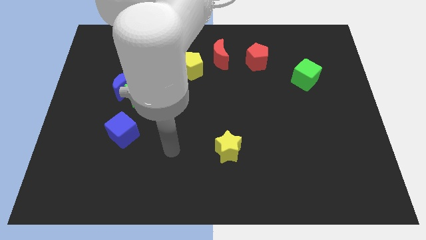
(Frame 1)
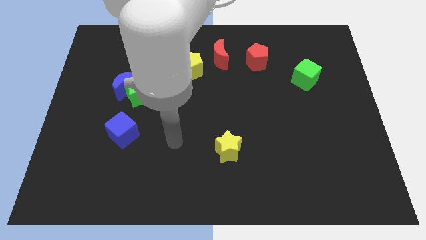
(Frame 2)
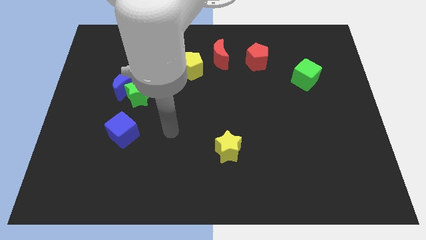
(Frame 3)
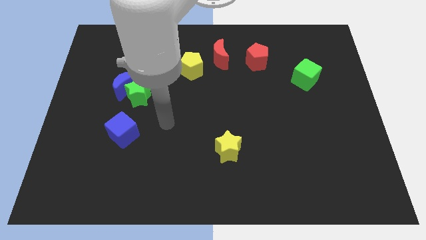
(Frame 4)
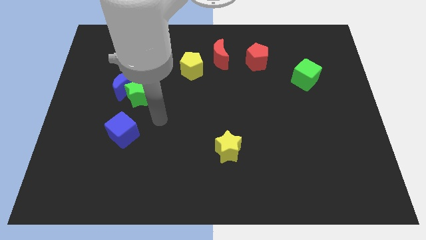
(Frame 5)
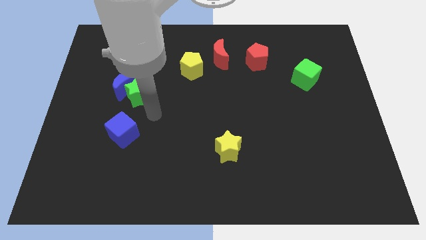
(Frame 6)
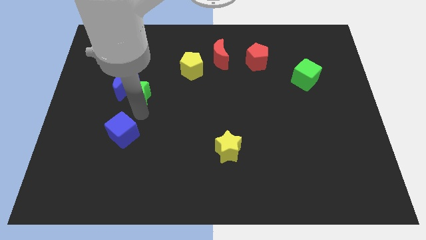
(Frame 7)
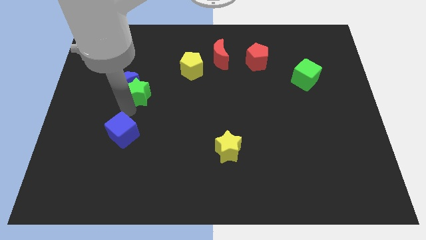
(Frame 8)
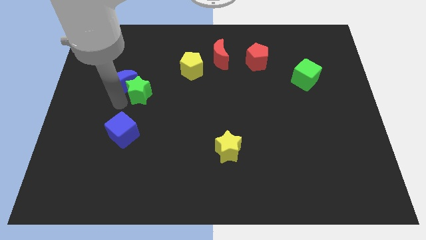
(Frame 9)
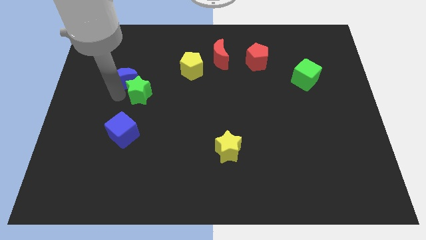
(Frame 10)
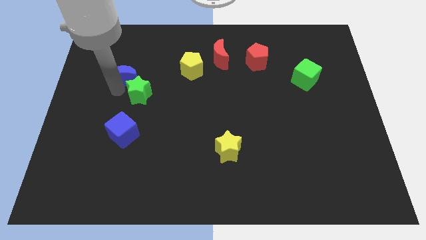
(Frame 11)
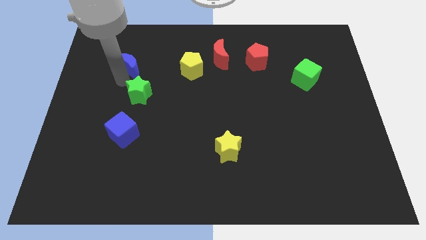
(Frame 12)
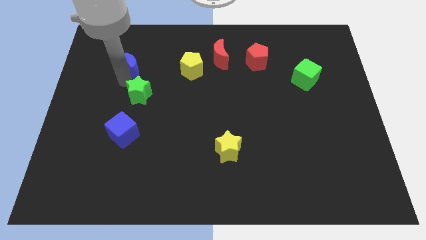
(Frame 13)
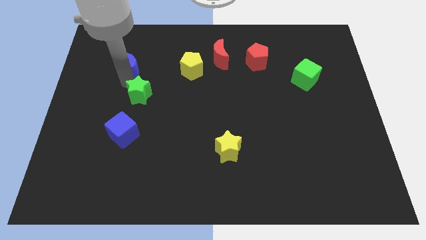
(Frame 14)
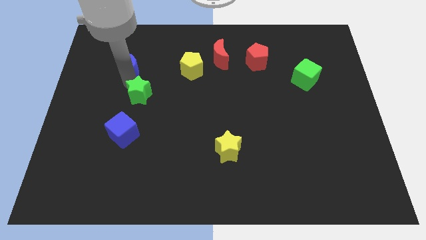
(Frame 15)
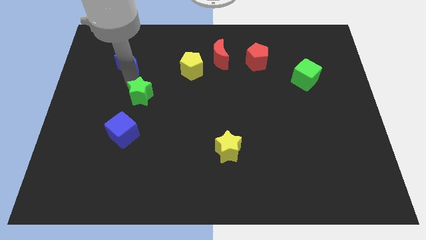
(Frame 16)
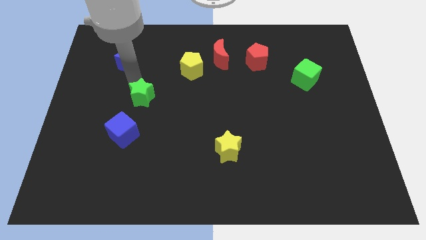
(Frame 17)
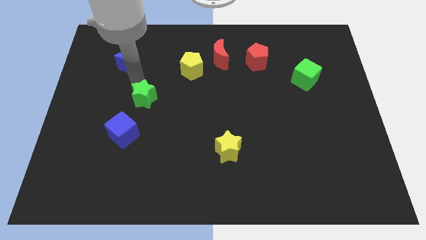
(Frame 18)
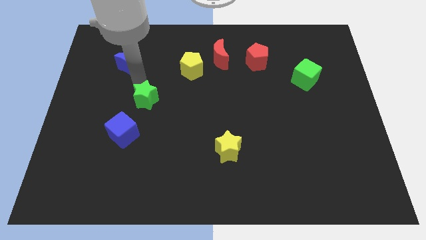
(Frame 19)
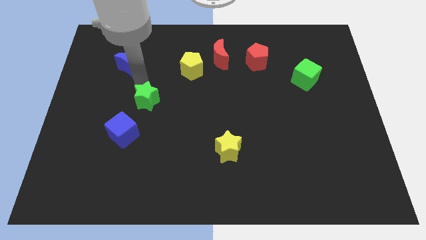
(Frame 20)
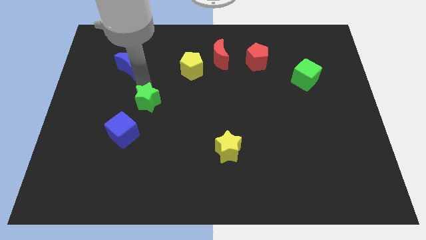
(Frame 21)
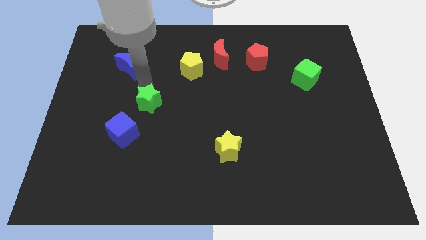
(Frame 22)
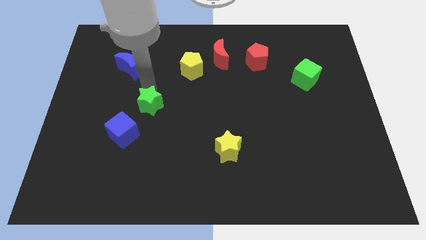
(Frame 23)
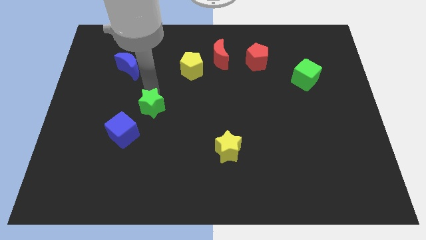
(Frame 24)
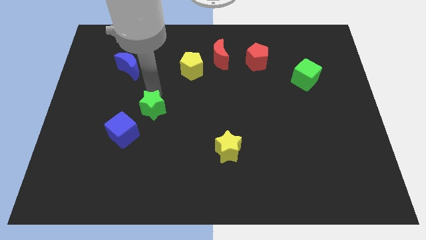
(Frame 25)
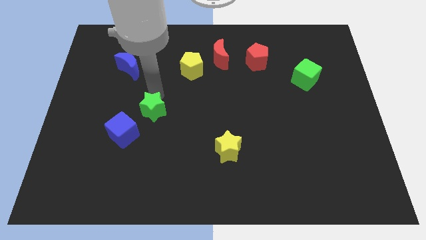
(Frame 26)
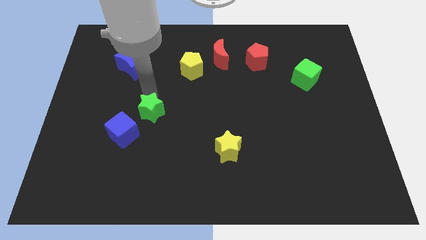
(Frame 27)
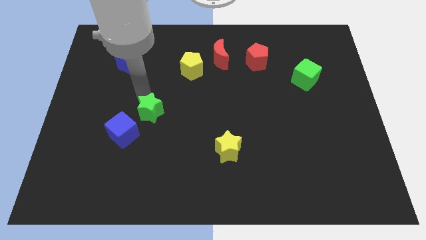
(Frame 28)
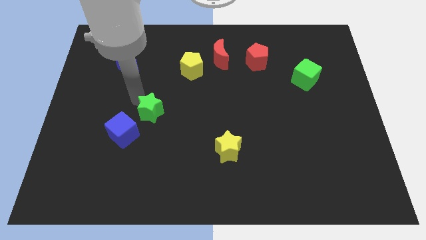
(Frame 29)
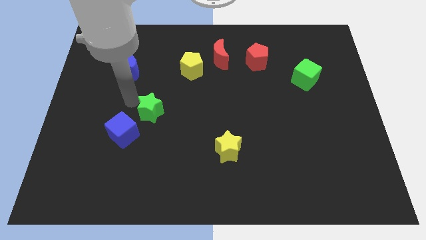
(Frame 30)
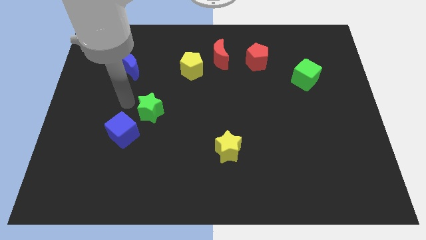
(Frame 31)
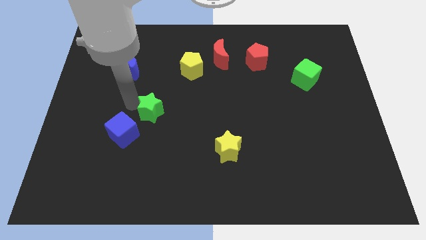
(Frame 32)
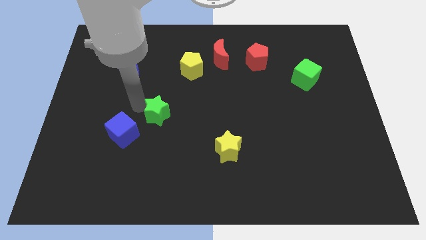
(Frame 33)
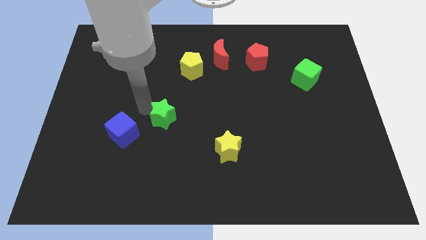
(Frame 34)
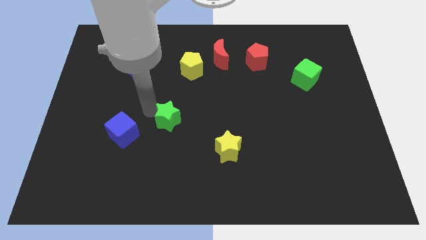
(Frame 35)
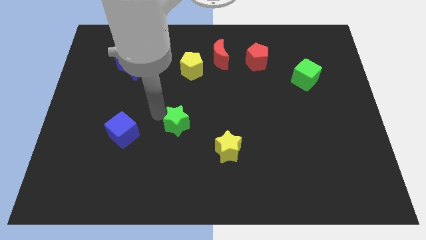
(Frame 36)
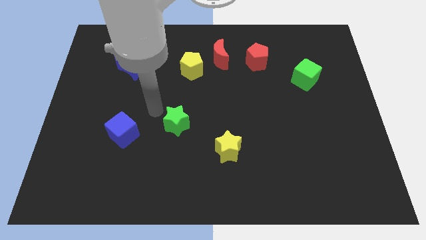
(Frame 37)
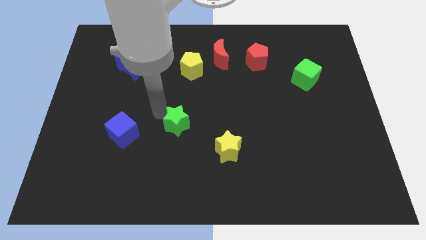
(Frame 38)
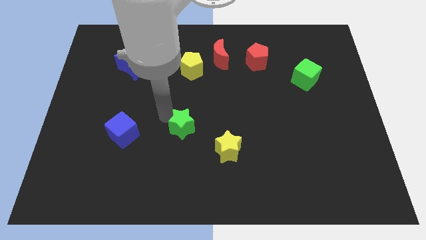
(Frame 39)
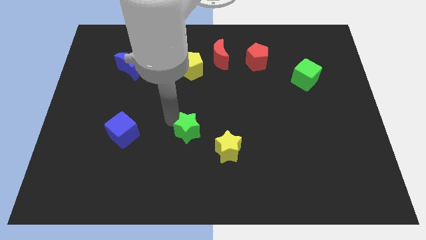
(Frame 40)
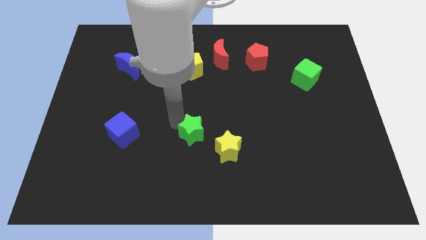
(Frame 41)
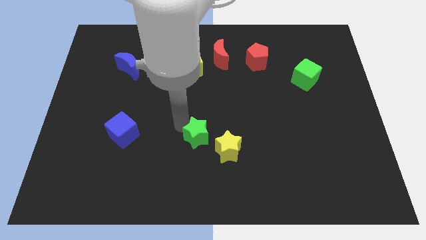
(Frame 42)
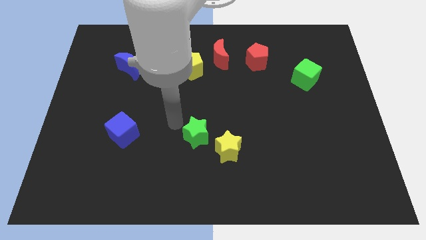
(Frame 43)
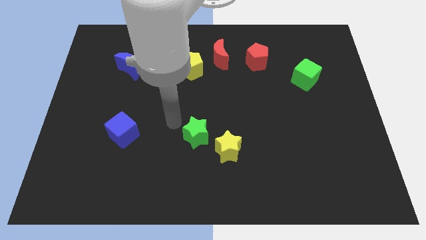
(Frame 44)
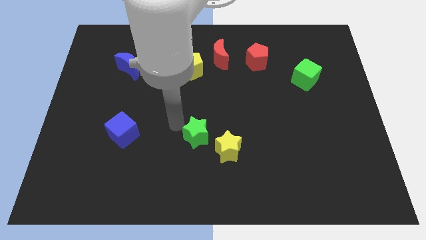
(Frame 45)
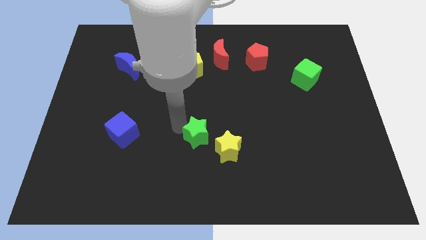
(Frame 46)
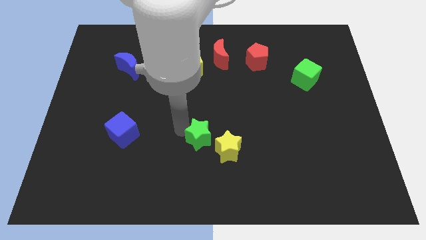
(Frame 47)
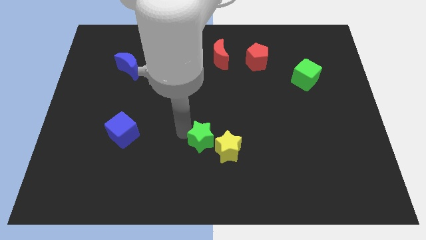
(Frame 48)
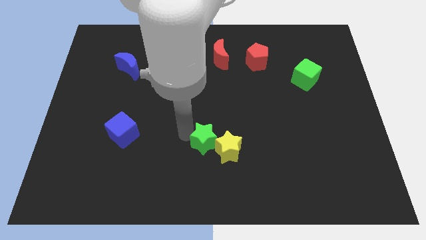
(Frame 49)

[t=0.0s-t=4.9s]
push the green star close to the yellow star

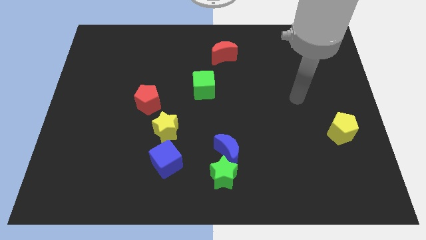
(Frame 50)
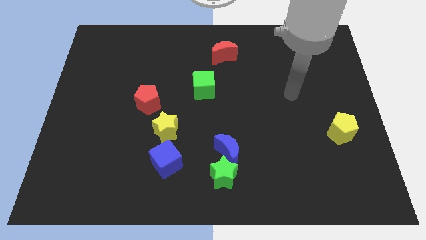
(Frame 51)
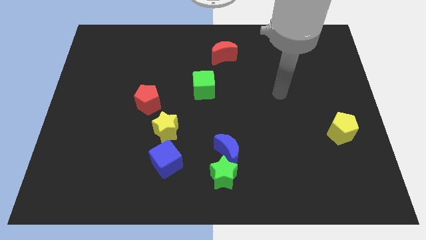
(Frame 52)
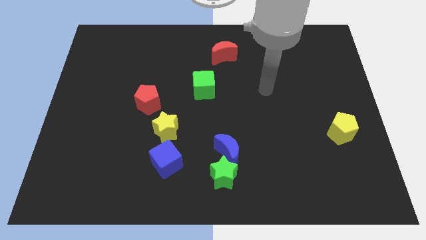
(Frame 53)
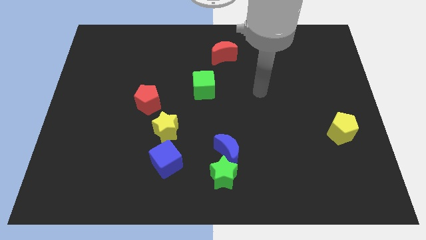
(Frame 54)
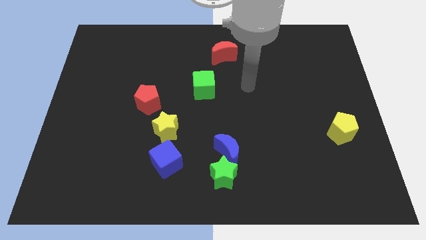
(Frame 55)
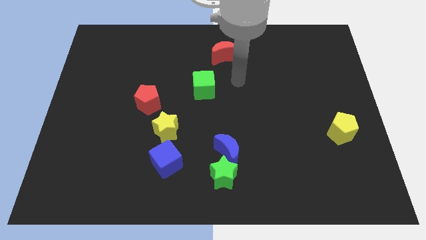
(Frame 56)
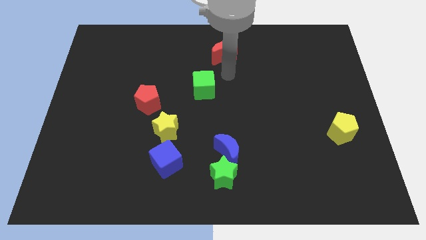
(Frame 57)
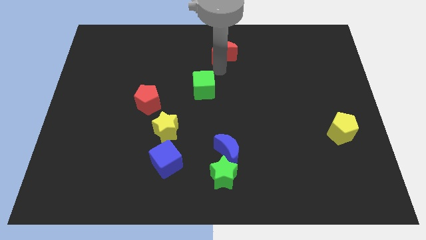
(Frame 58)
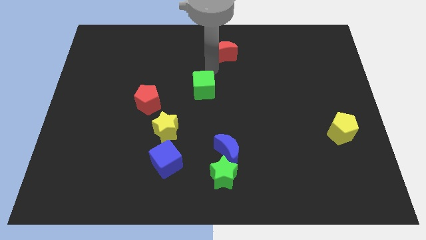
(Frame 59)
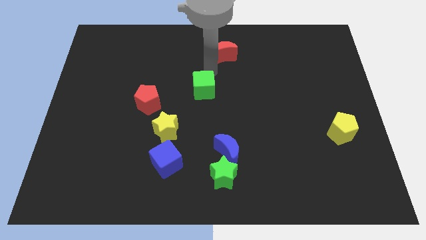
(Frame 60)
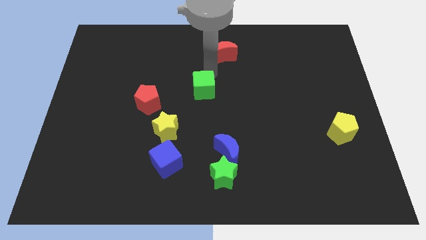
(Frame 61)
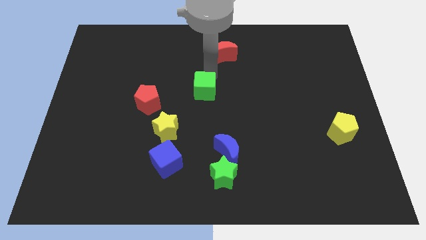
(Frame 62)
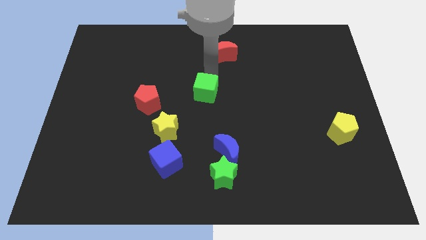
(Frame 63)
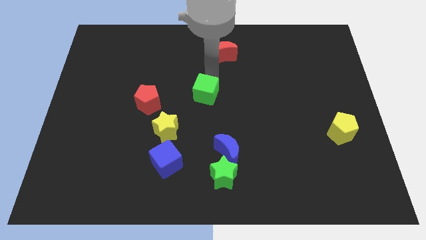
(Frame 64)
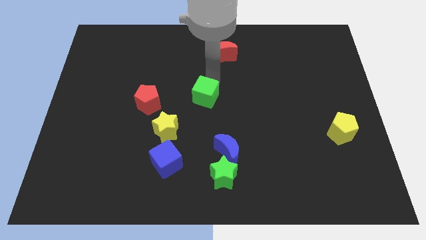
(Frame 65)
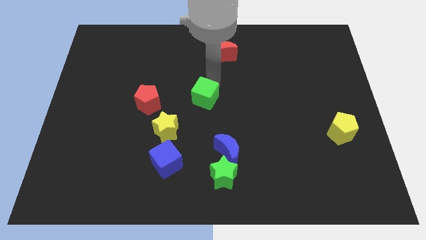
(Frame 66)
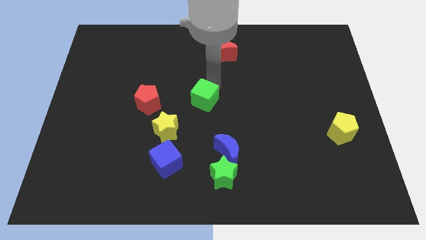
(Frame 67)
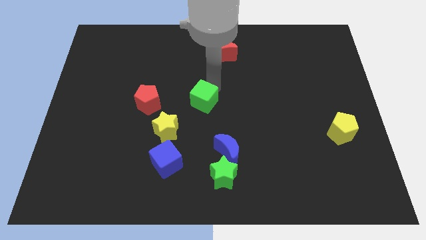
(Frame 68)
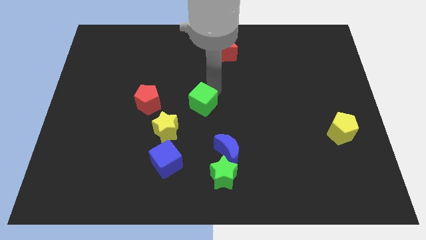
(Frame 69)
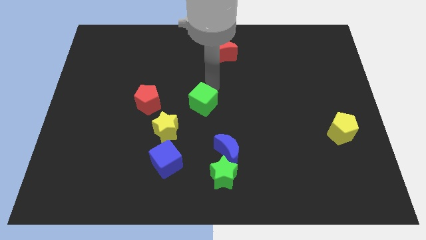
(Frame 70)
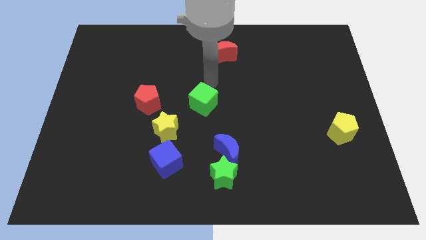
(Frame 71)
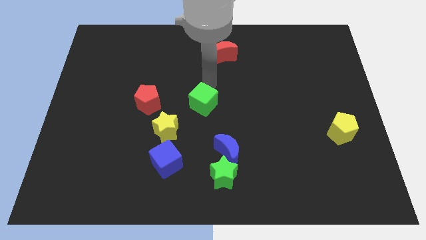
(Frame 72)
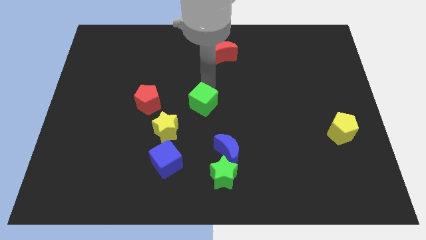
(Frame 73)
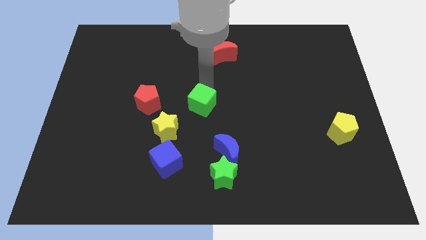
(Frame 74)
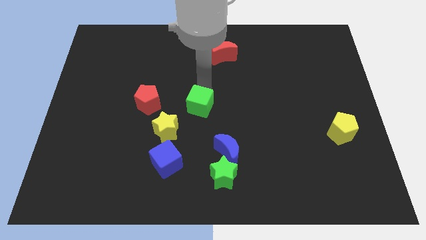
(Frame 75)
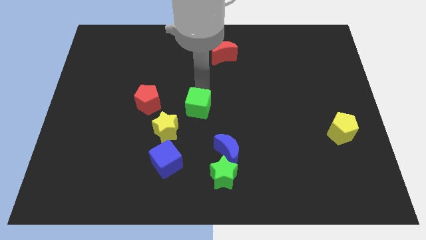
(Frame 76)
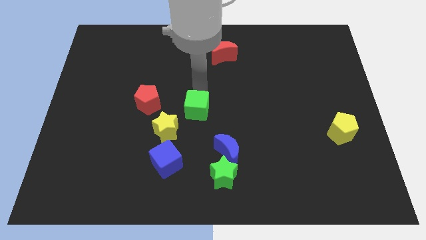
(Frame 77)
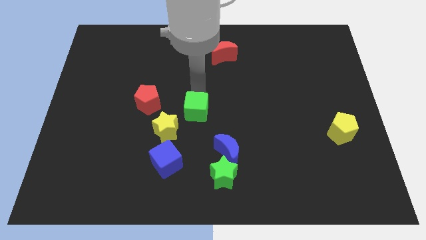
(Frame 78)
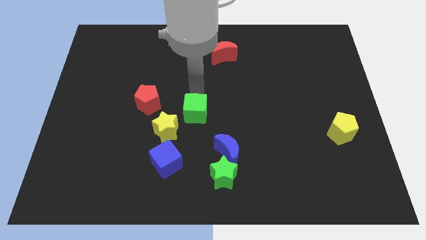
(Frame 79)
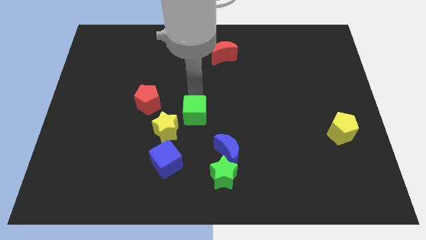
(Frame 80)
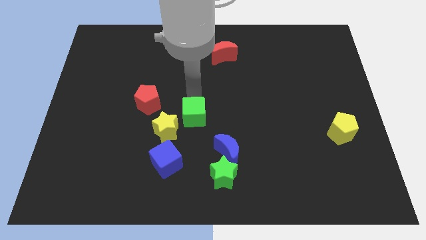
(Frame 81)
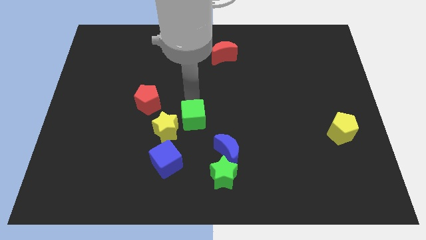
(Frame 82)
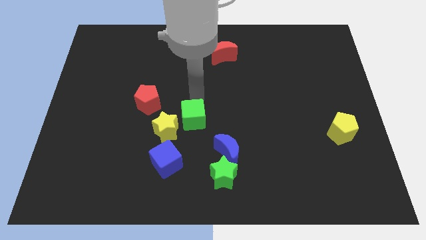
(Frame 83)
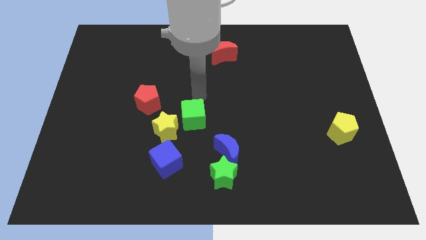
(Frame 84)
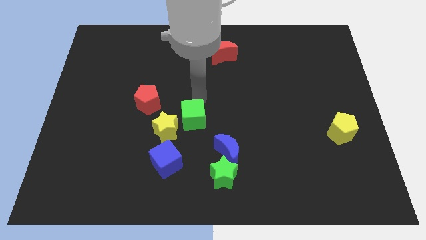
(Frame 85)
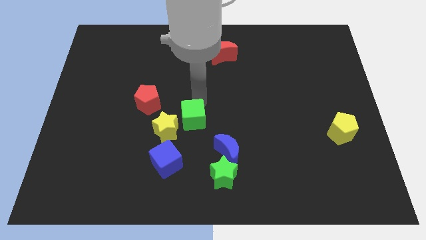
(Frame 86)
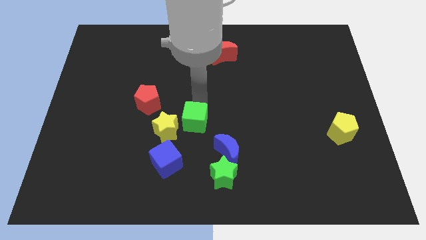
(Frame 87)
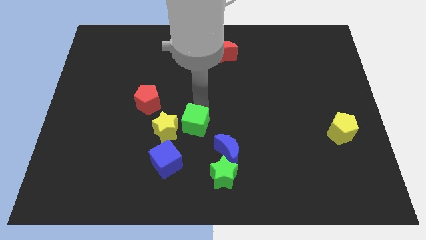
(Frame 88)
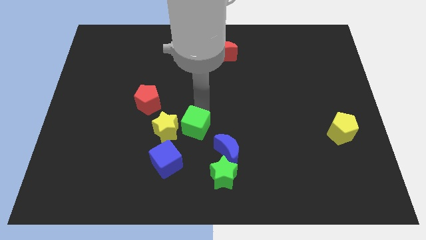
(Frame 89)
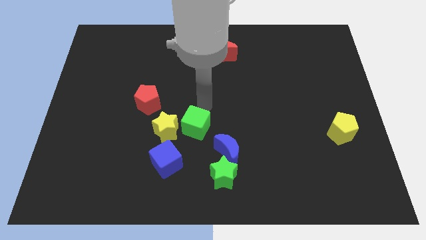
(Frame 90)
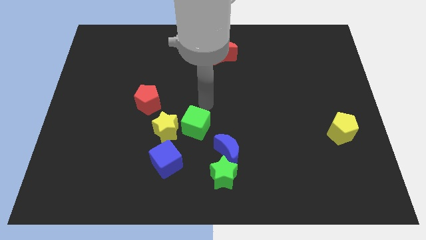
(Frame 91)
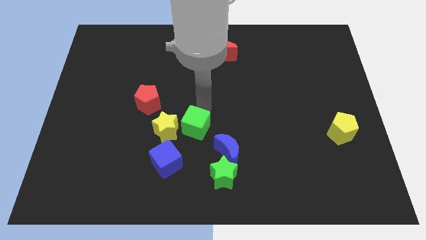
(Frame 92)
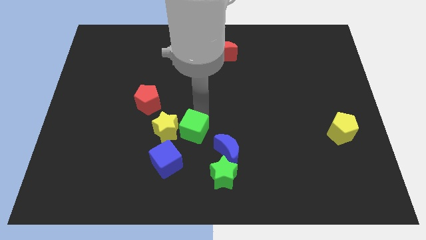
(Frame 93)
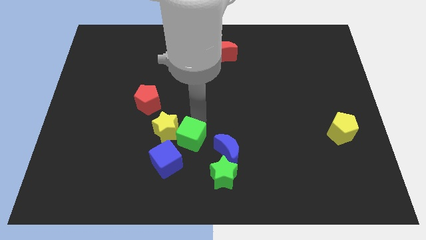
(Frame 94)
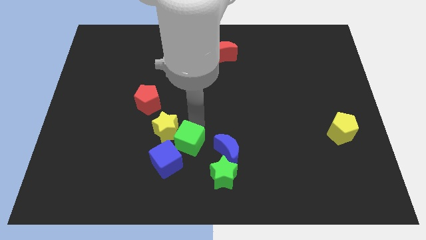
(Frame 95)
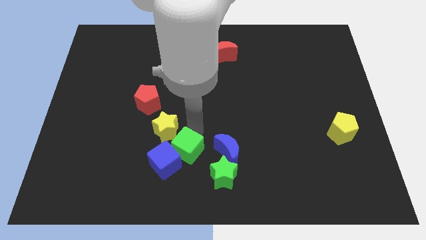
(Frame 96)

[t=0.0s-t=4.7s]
move the green cube close to the blue cube
